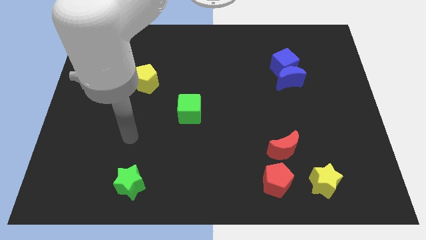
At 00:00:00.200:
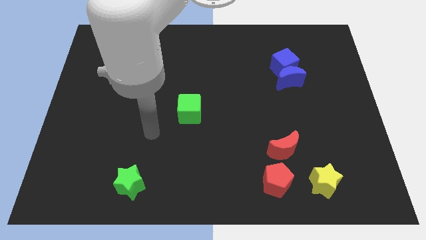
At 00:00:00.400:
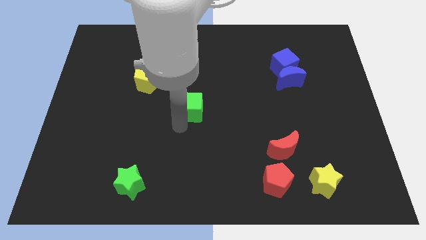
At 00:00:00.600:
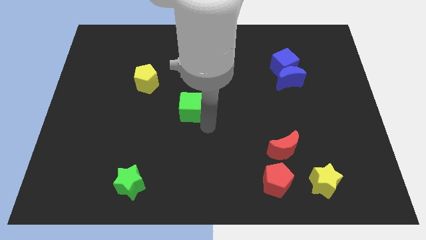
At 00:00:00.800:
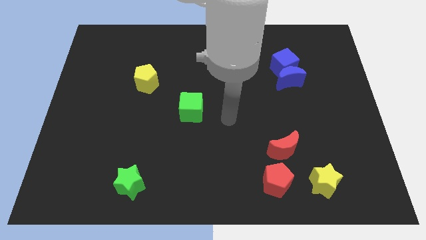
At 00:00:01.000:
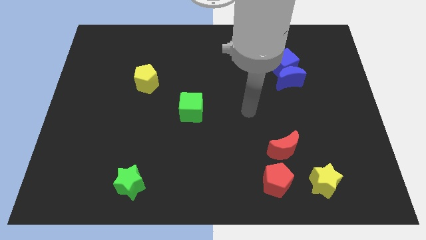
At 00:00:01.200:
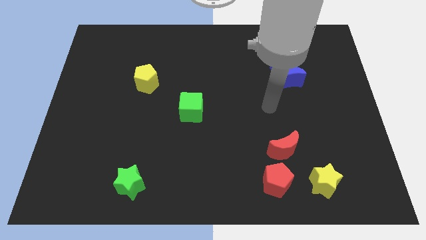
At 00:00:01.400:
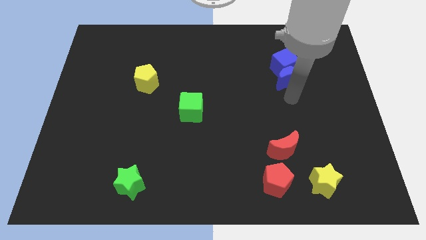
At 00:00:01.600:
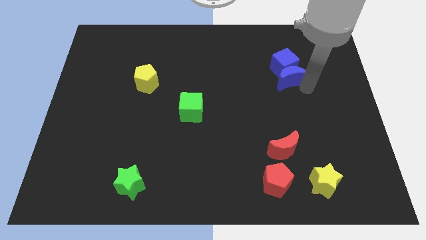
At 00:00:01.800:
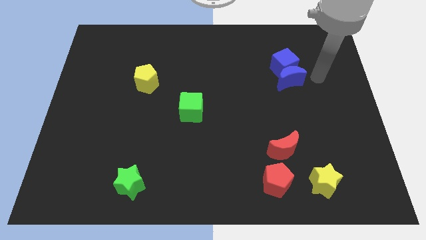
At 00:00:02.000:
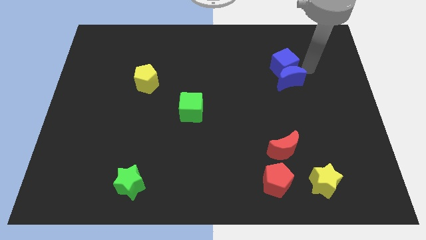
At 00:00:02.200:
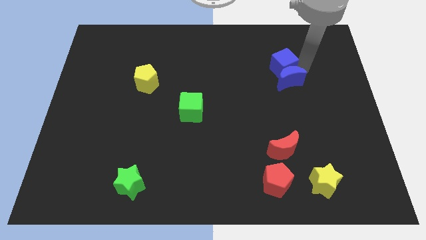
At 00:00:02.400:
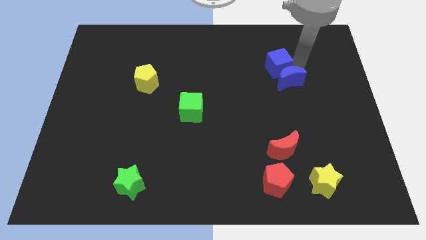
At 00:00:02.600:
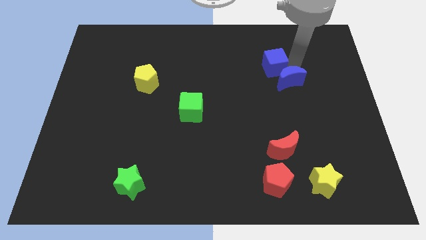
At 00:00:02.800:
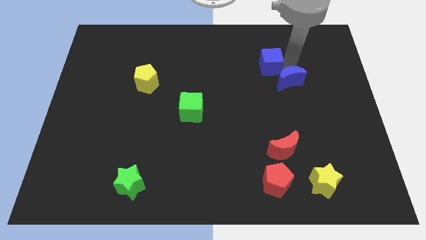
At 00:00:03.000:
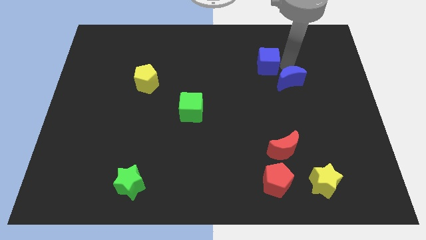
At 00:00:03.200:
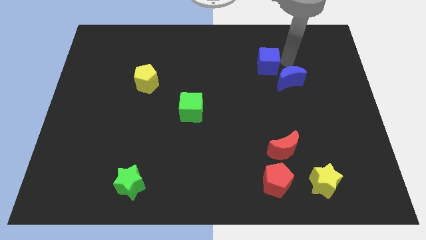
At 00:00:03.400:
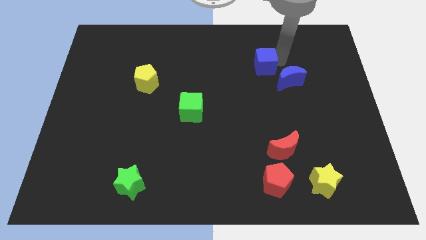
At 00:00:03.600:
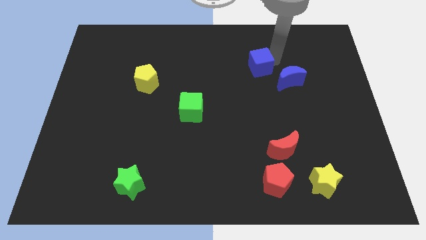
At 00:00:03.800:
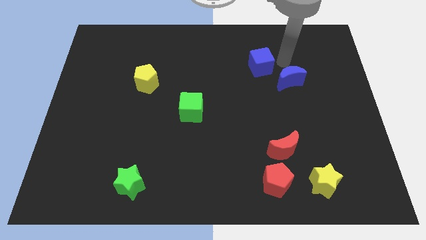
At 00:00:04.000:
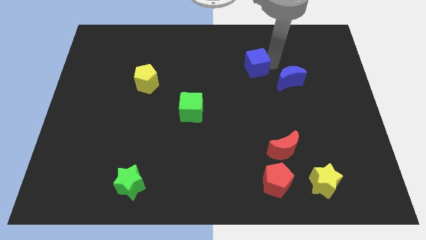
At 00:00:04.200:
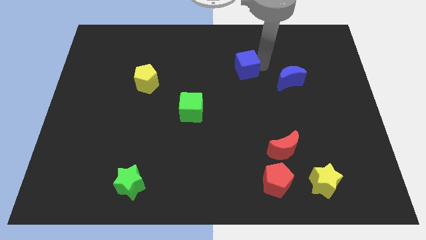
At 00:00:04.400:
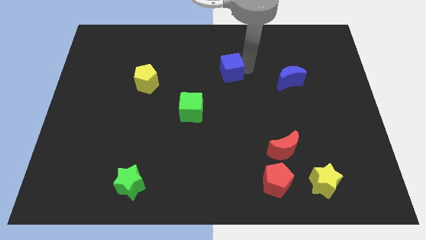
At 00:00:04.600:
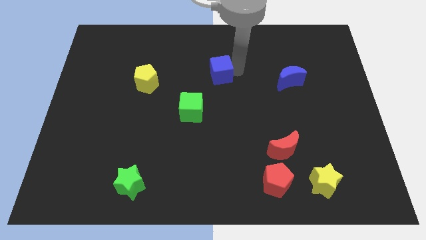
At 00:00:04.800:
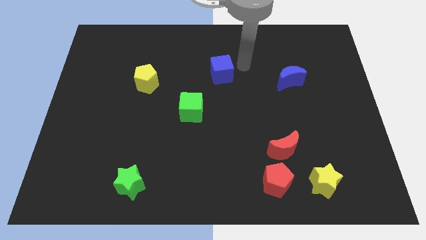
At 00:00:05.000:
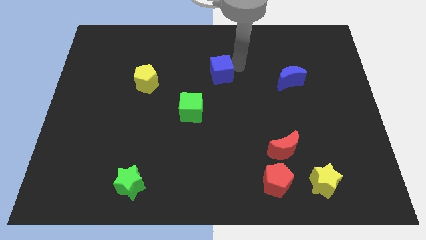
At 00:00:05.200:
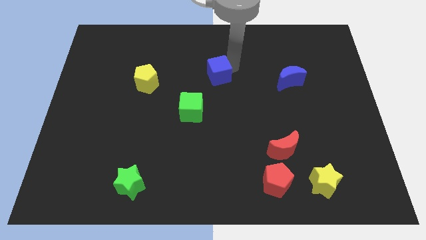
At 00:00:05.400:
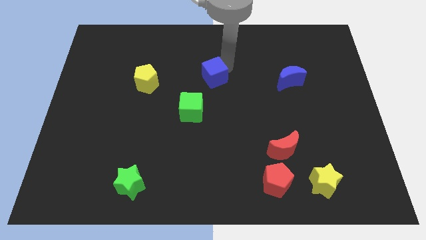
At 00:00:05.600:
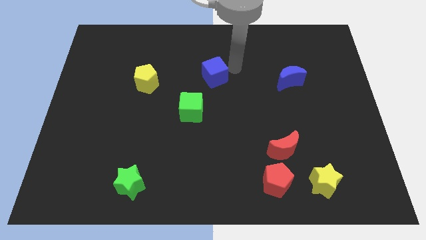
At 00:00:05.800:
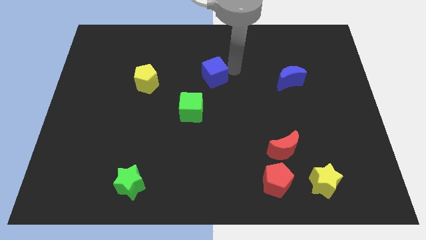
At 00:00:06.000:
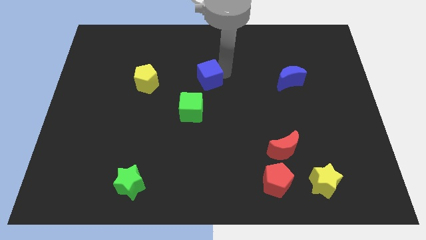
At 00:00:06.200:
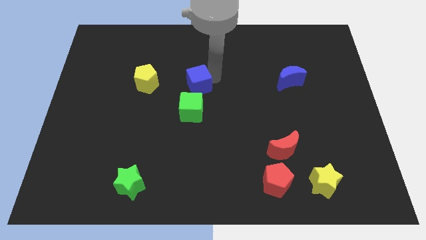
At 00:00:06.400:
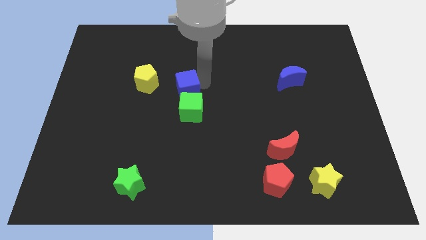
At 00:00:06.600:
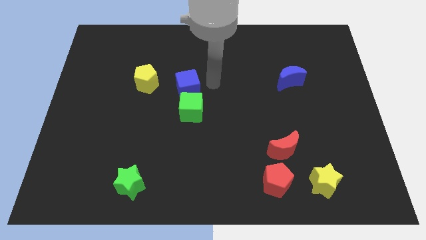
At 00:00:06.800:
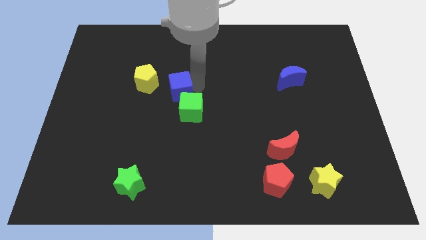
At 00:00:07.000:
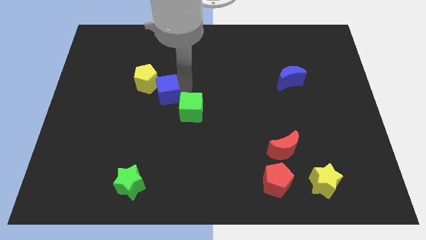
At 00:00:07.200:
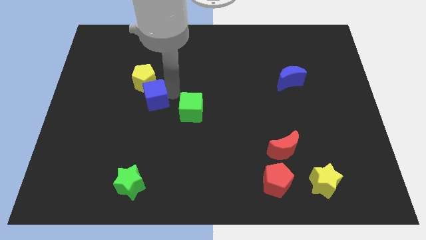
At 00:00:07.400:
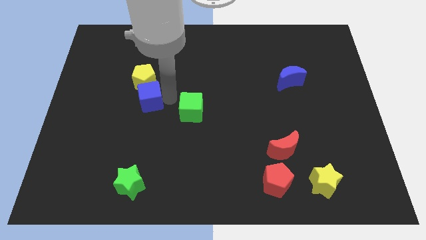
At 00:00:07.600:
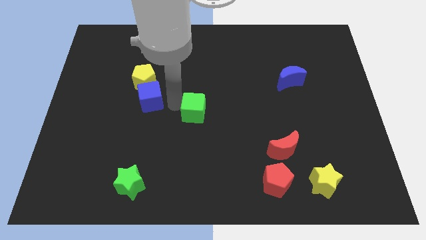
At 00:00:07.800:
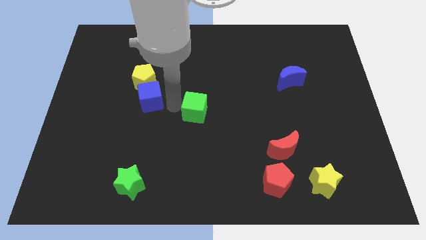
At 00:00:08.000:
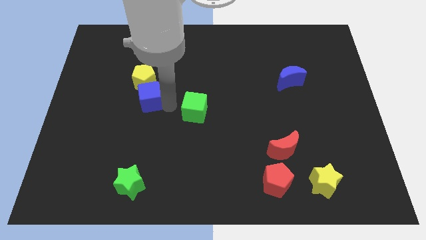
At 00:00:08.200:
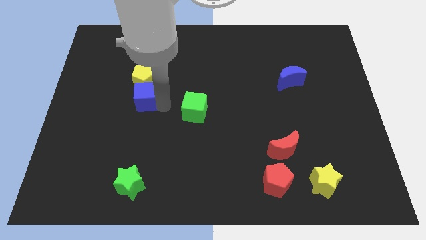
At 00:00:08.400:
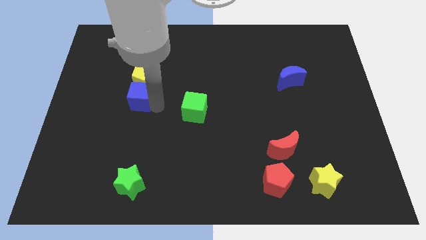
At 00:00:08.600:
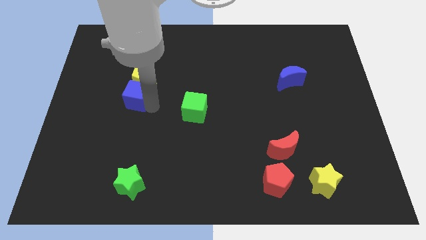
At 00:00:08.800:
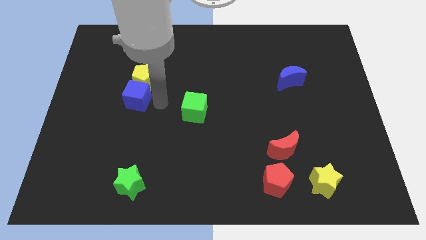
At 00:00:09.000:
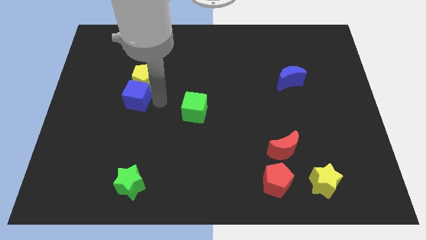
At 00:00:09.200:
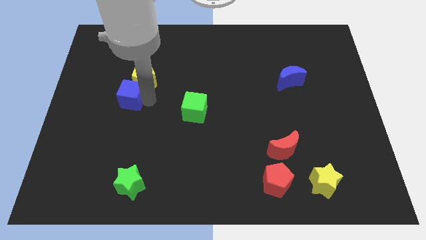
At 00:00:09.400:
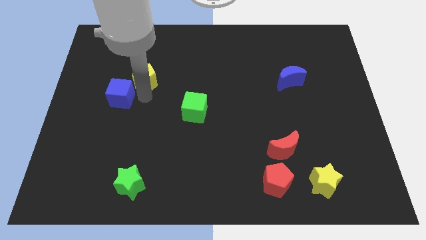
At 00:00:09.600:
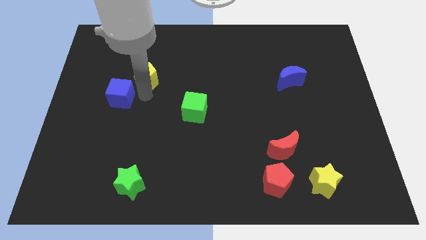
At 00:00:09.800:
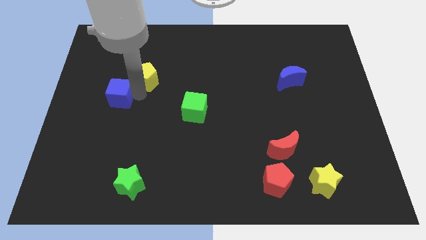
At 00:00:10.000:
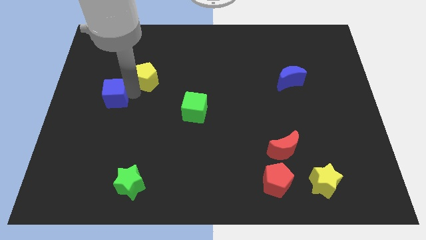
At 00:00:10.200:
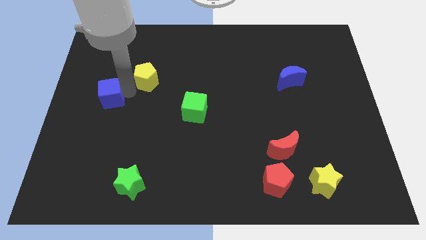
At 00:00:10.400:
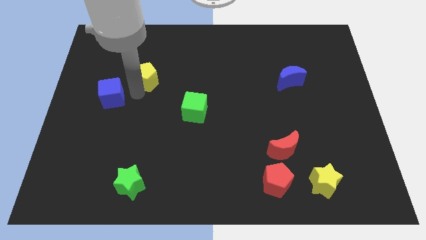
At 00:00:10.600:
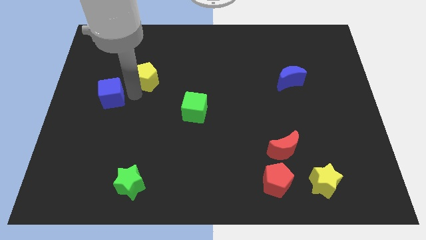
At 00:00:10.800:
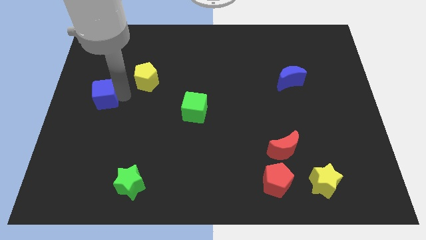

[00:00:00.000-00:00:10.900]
push the blue cube to the left side of the board

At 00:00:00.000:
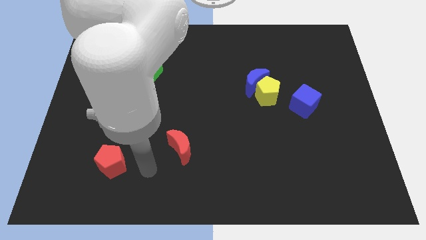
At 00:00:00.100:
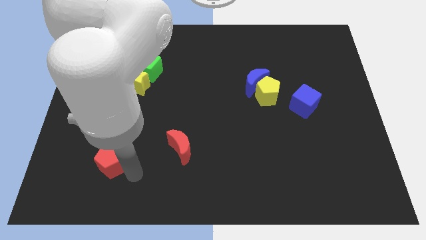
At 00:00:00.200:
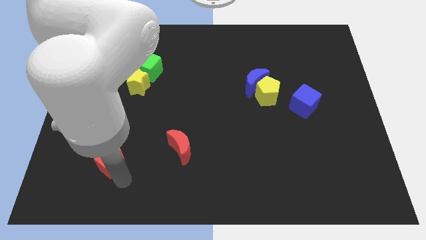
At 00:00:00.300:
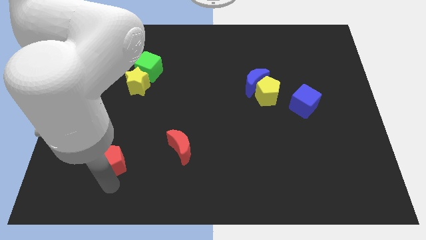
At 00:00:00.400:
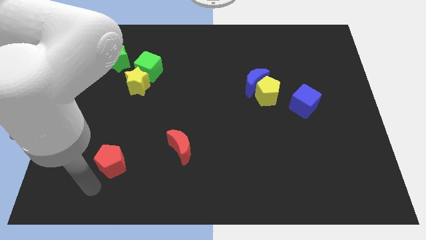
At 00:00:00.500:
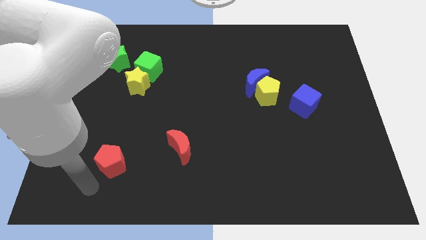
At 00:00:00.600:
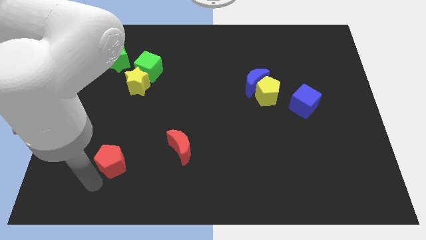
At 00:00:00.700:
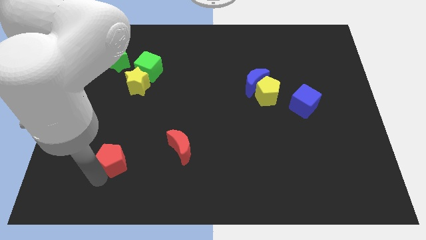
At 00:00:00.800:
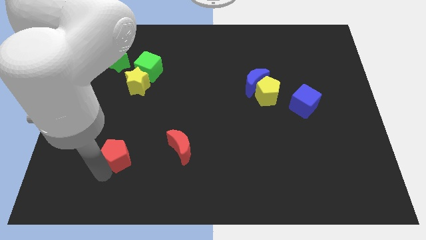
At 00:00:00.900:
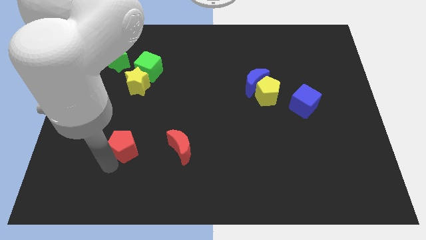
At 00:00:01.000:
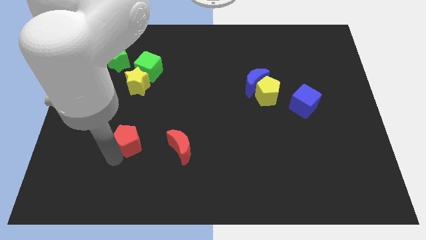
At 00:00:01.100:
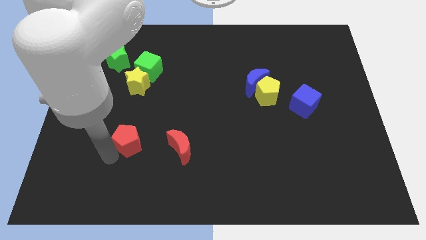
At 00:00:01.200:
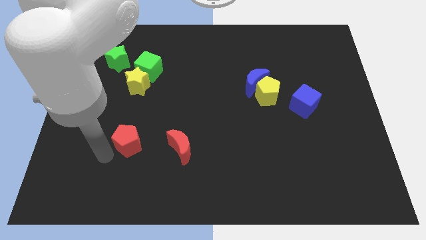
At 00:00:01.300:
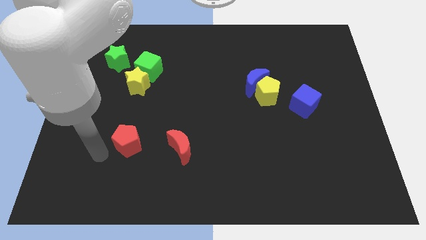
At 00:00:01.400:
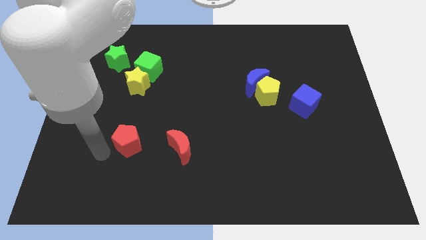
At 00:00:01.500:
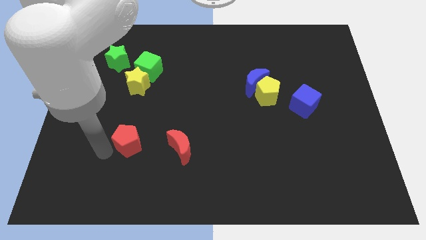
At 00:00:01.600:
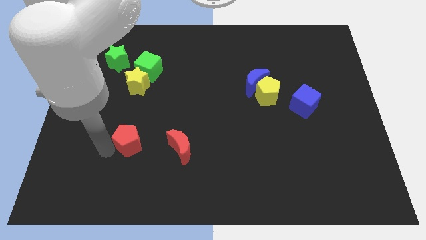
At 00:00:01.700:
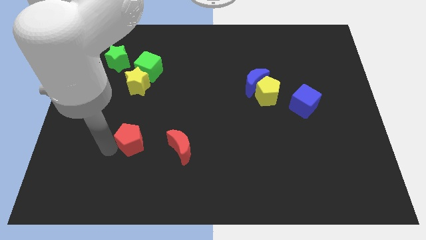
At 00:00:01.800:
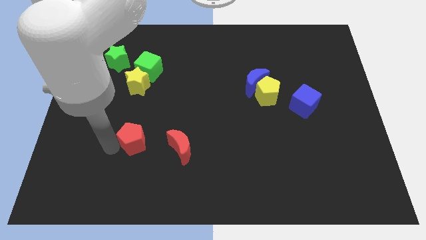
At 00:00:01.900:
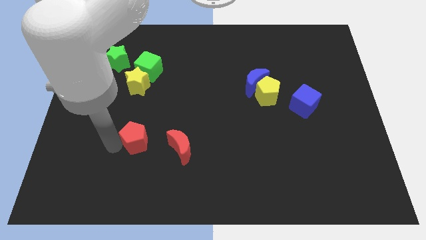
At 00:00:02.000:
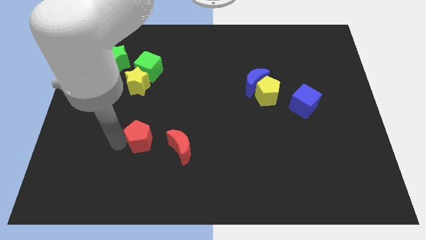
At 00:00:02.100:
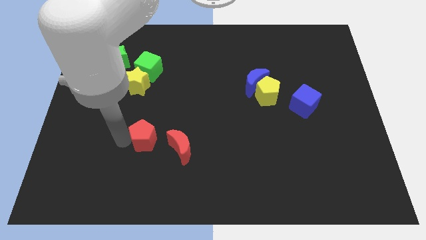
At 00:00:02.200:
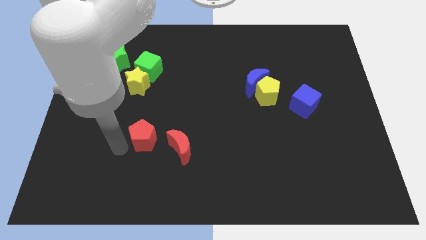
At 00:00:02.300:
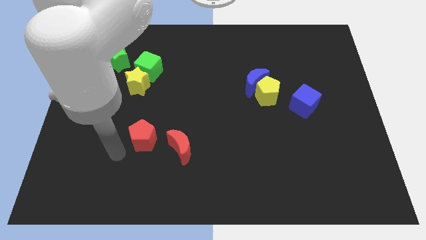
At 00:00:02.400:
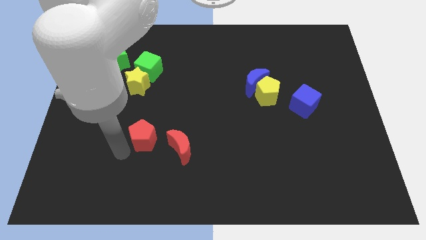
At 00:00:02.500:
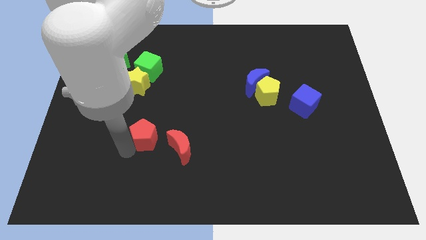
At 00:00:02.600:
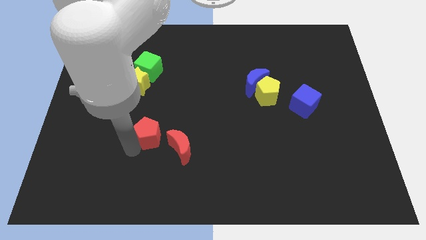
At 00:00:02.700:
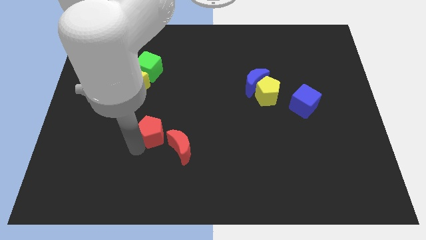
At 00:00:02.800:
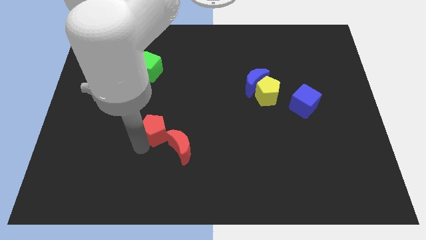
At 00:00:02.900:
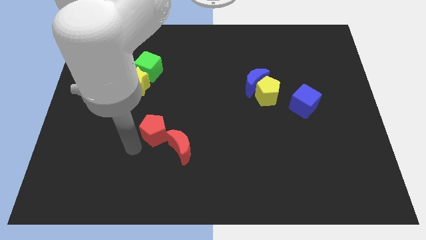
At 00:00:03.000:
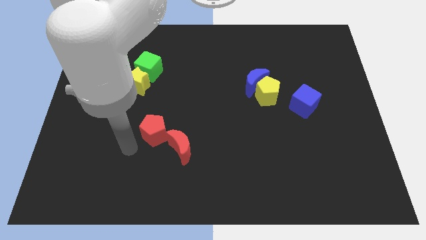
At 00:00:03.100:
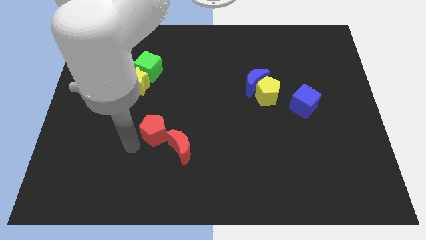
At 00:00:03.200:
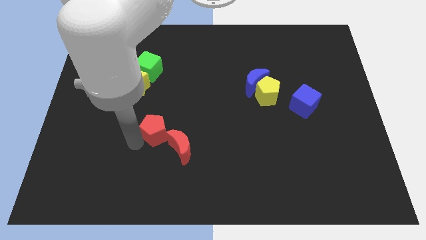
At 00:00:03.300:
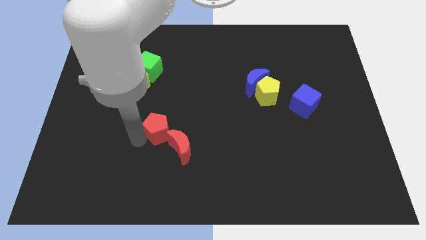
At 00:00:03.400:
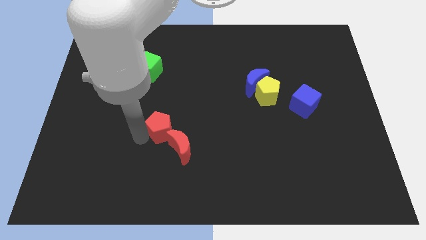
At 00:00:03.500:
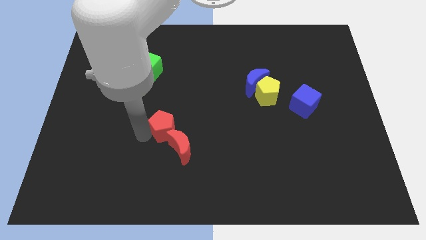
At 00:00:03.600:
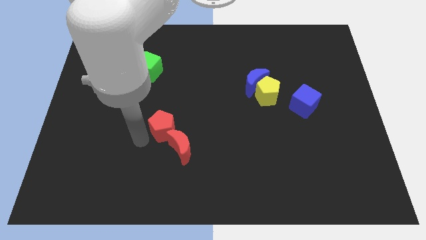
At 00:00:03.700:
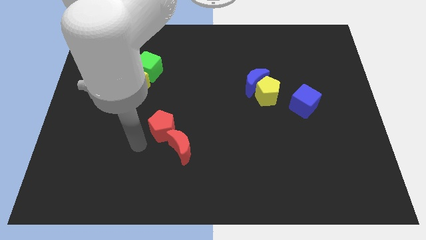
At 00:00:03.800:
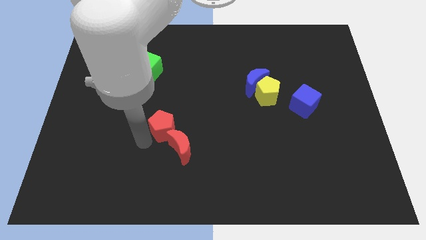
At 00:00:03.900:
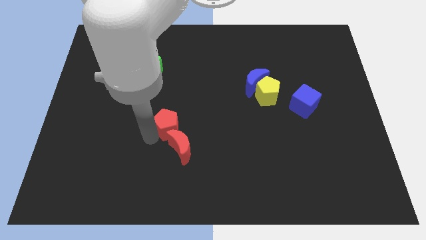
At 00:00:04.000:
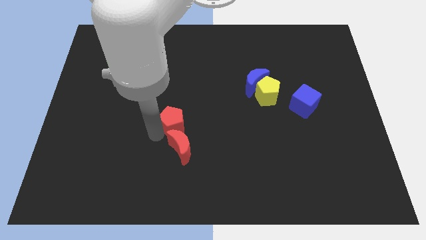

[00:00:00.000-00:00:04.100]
push the red pentagon to the center of the board
